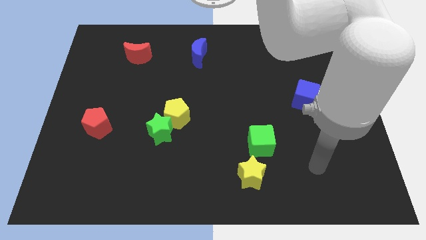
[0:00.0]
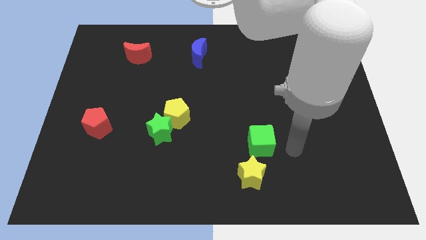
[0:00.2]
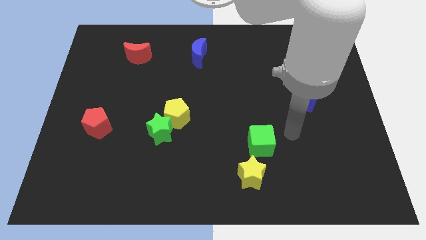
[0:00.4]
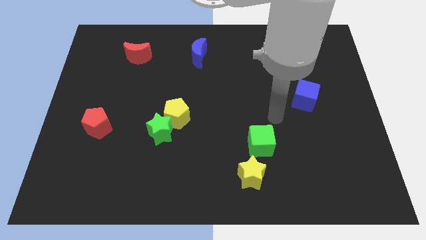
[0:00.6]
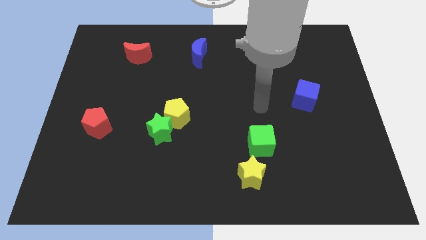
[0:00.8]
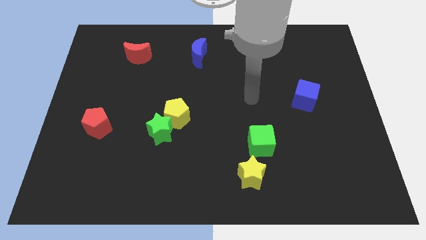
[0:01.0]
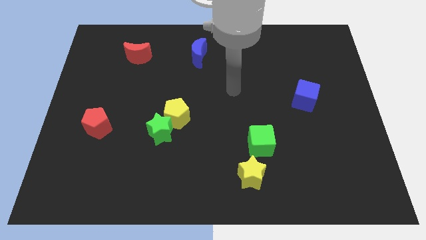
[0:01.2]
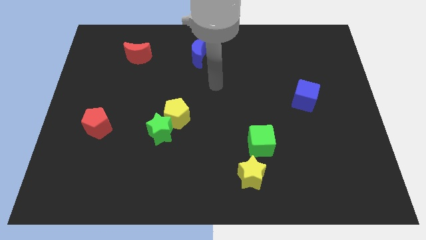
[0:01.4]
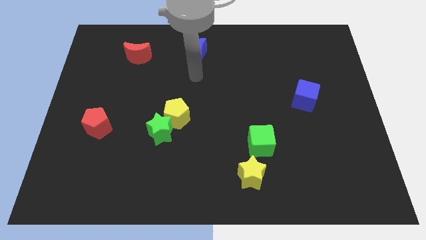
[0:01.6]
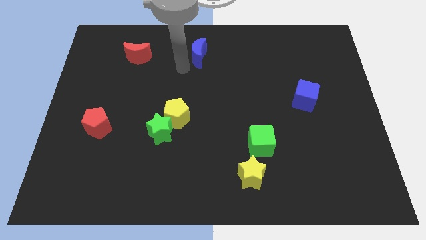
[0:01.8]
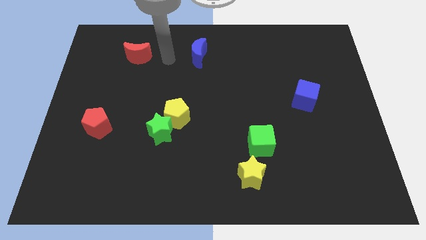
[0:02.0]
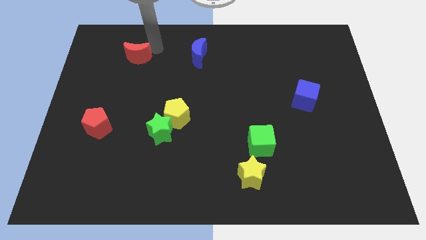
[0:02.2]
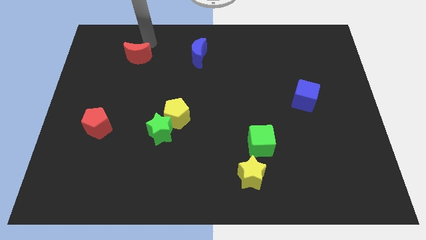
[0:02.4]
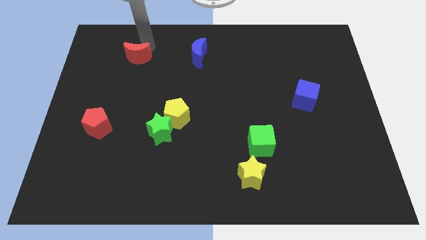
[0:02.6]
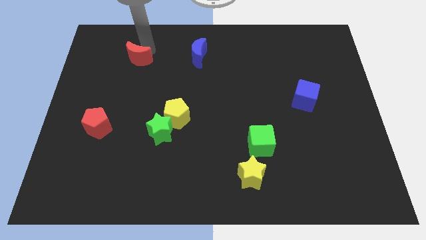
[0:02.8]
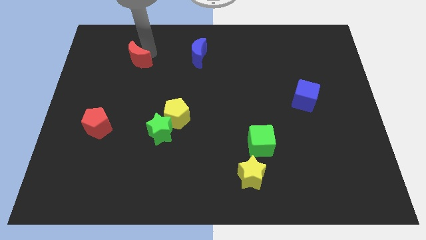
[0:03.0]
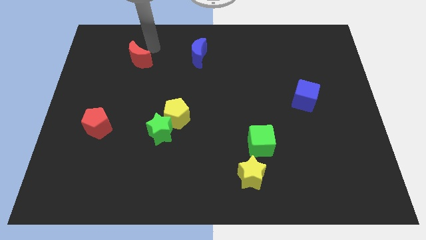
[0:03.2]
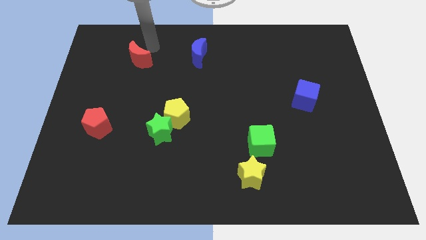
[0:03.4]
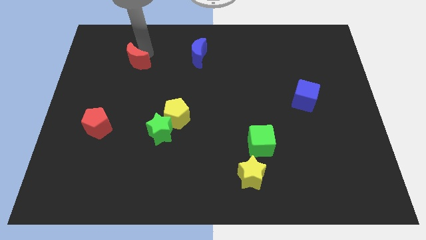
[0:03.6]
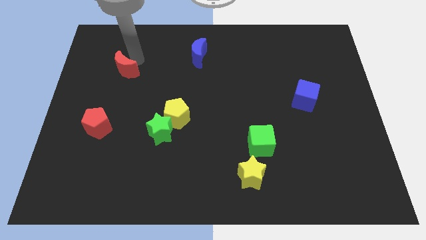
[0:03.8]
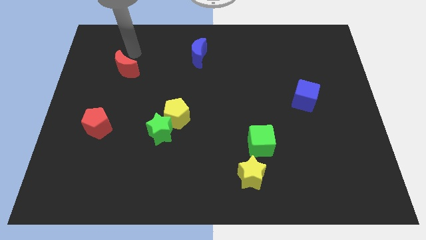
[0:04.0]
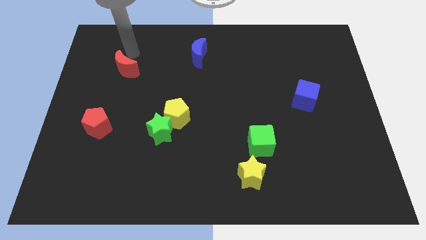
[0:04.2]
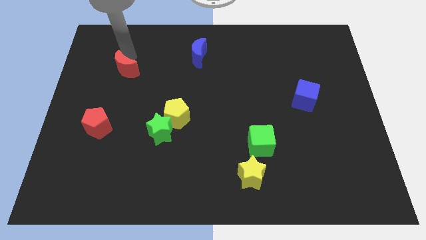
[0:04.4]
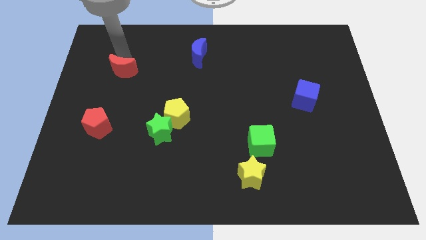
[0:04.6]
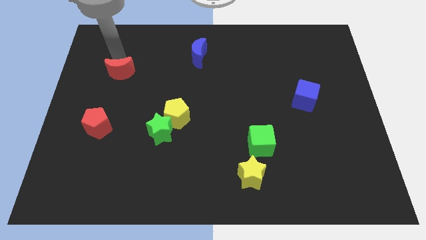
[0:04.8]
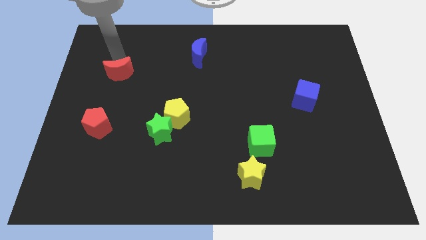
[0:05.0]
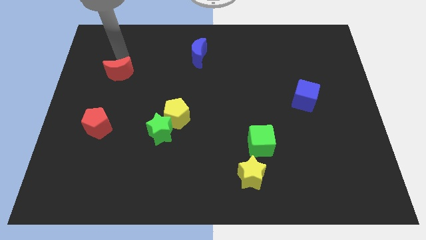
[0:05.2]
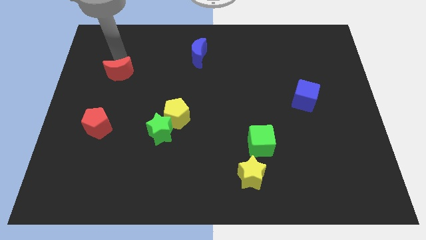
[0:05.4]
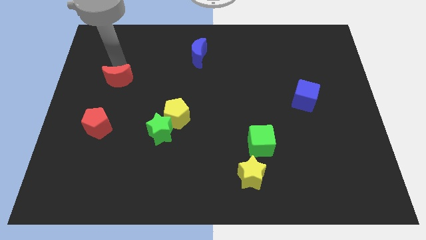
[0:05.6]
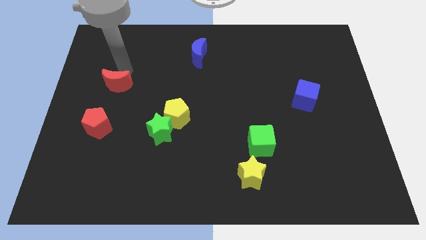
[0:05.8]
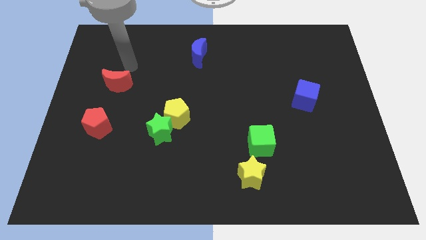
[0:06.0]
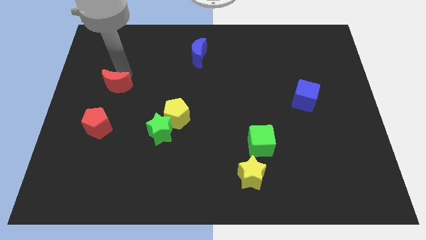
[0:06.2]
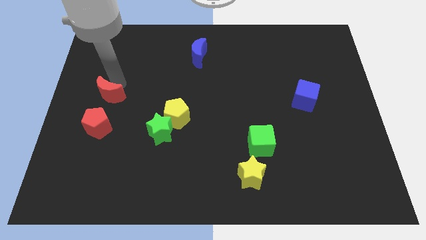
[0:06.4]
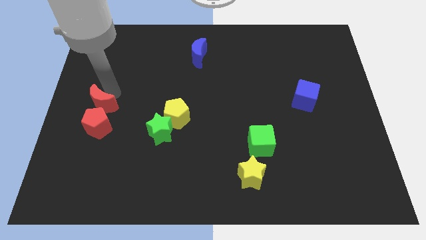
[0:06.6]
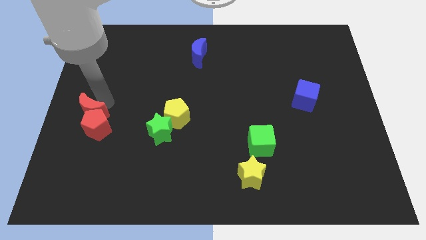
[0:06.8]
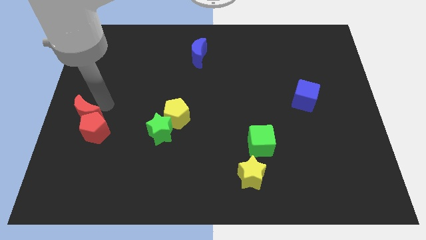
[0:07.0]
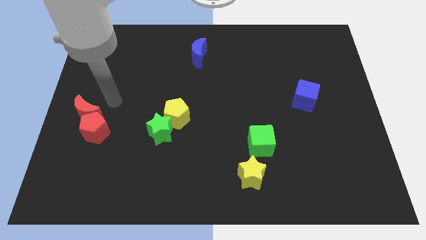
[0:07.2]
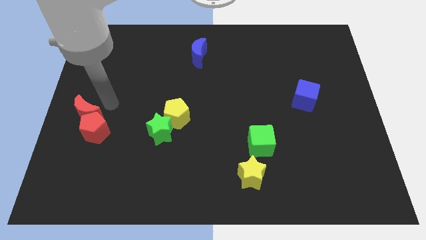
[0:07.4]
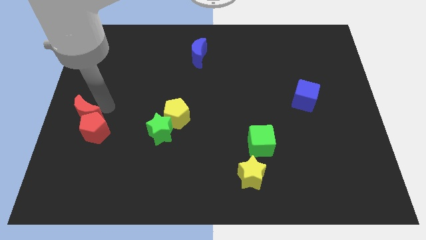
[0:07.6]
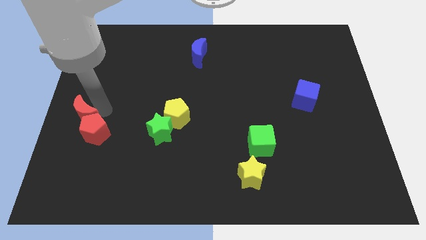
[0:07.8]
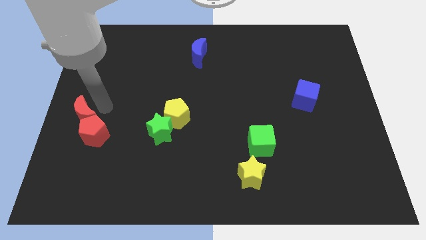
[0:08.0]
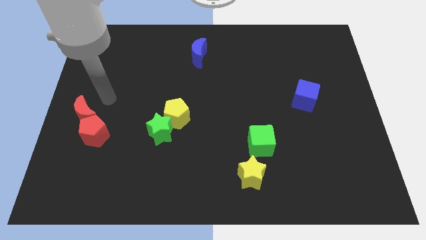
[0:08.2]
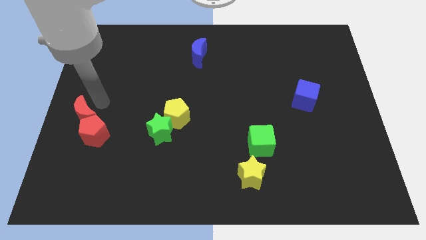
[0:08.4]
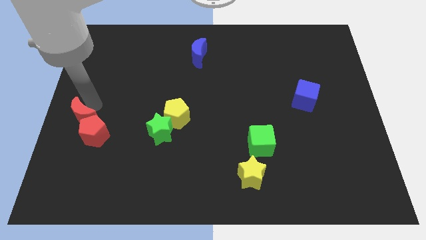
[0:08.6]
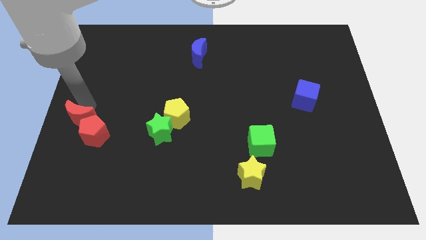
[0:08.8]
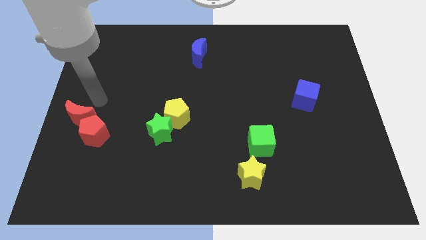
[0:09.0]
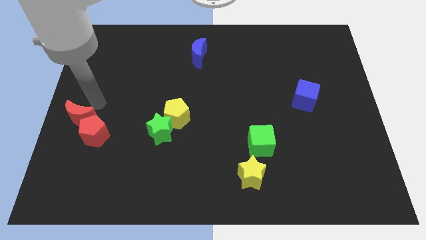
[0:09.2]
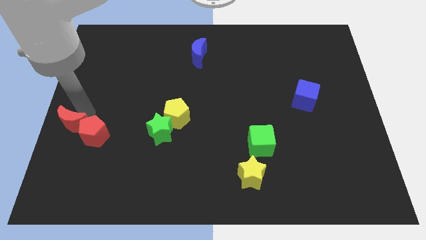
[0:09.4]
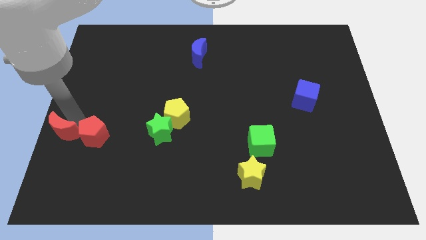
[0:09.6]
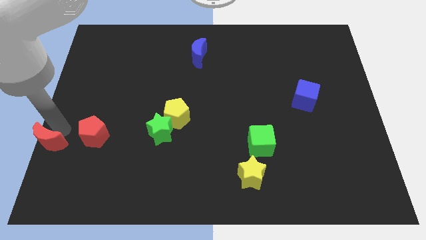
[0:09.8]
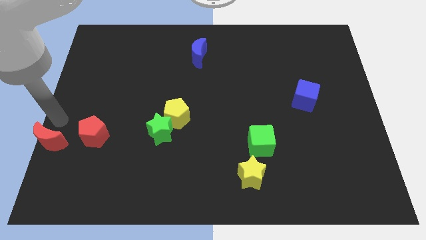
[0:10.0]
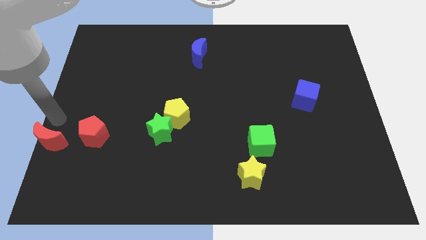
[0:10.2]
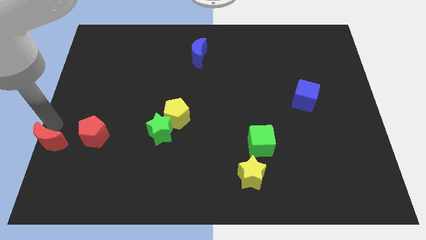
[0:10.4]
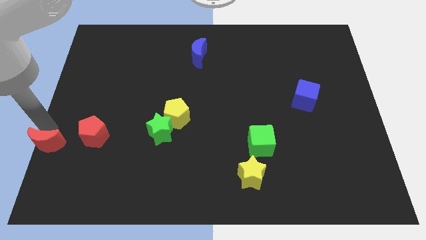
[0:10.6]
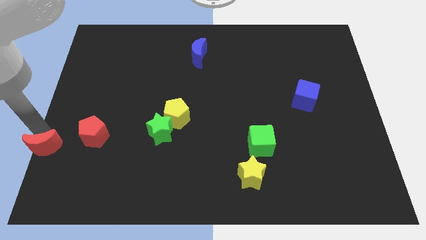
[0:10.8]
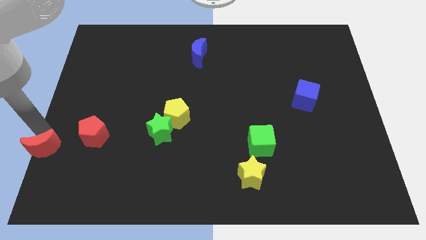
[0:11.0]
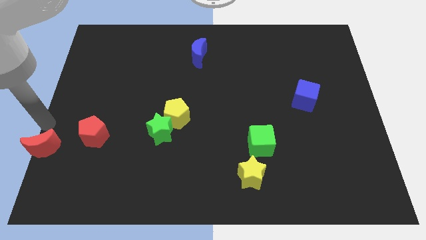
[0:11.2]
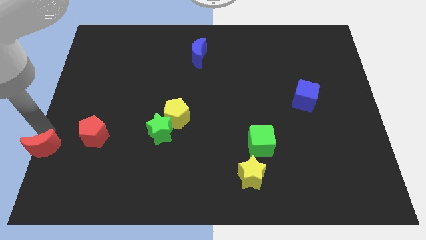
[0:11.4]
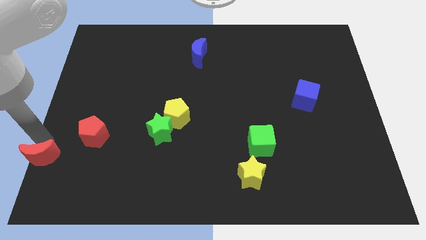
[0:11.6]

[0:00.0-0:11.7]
slide the red moon to the bottom left corner

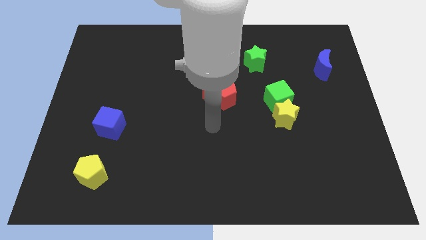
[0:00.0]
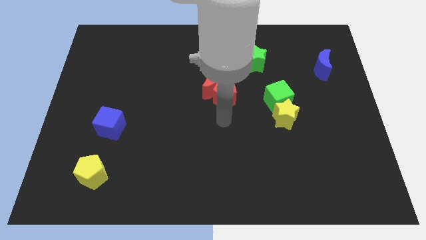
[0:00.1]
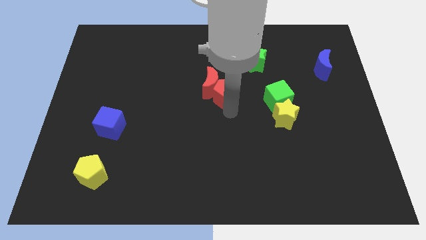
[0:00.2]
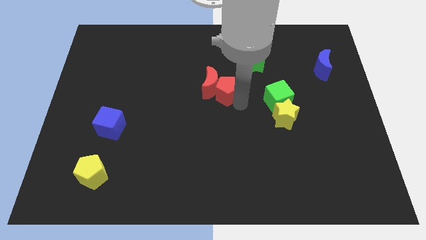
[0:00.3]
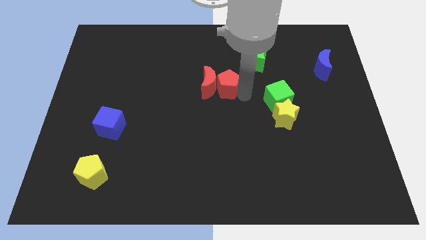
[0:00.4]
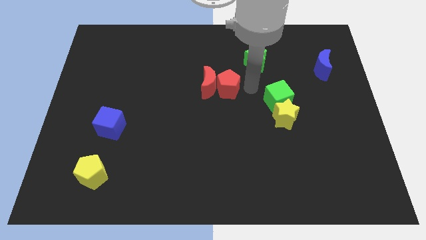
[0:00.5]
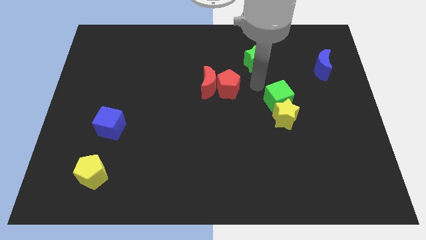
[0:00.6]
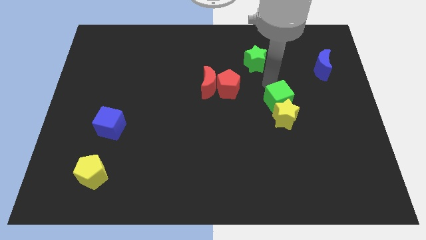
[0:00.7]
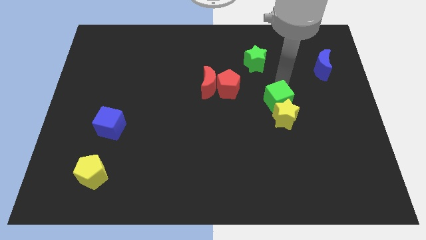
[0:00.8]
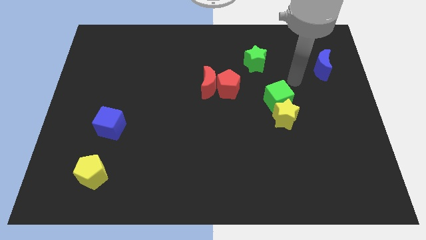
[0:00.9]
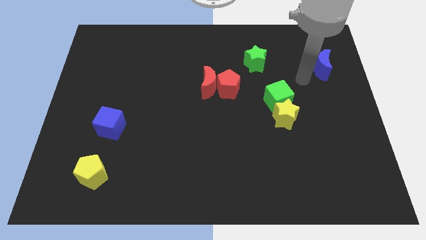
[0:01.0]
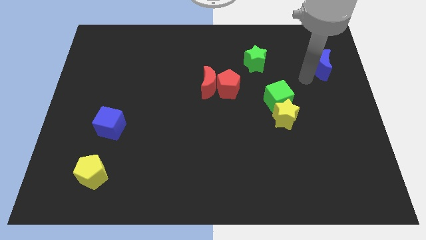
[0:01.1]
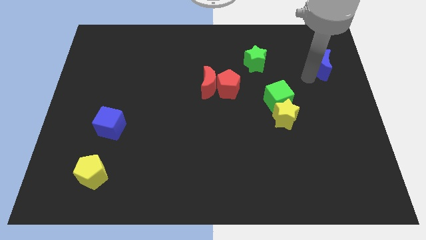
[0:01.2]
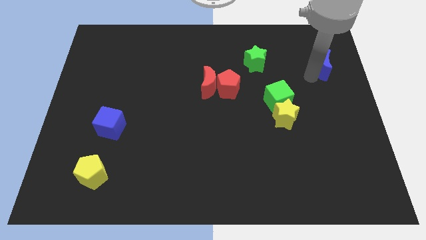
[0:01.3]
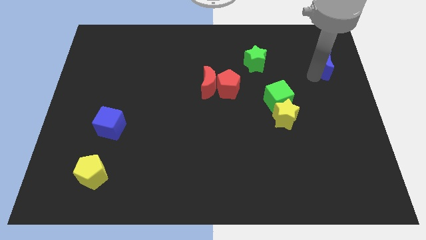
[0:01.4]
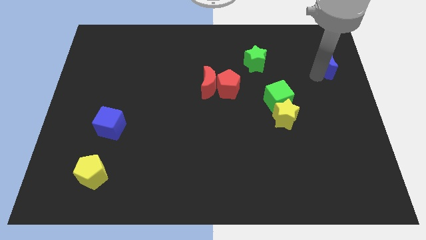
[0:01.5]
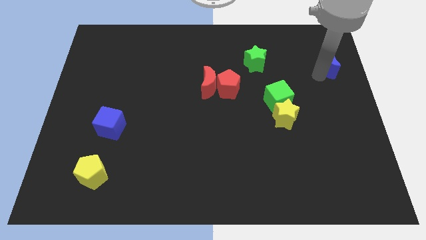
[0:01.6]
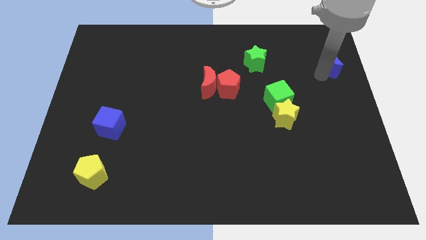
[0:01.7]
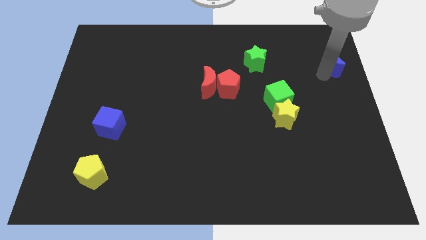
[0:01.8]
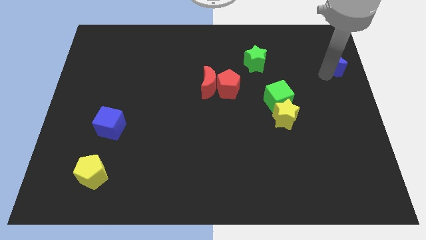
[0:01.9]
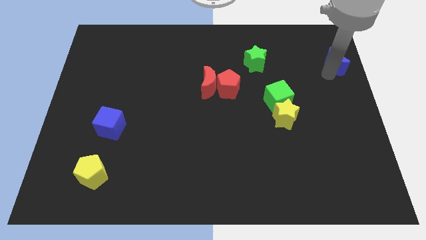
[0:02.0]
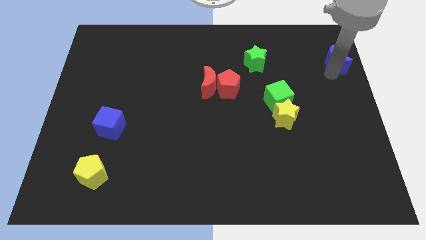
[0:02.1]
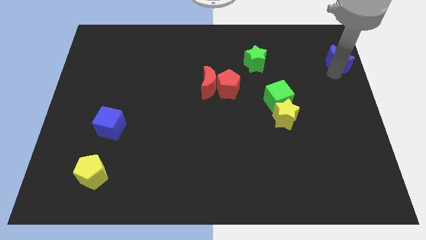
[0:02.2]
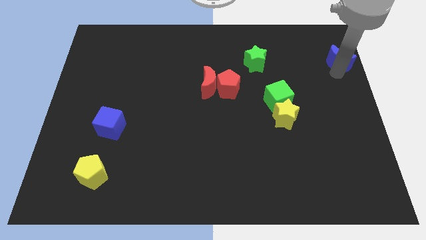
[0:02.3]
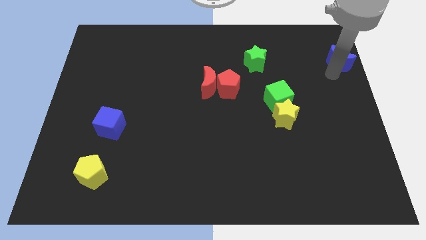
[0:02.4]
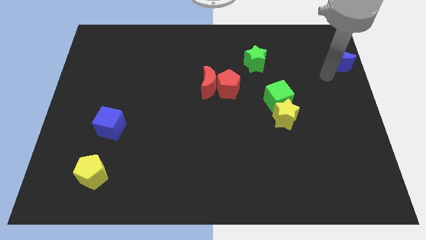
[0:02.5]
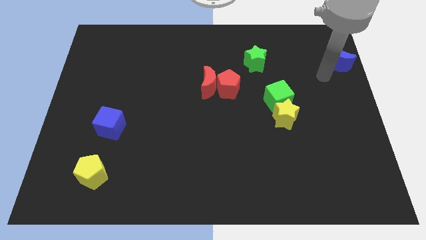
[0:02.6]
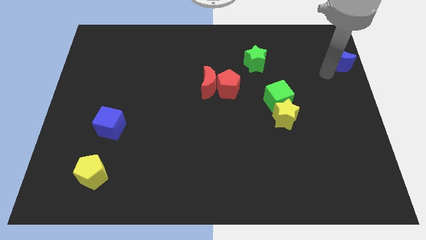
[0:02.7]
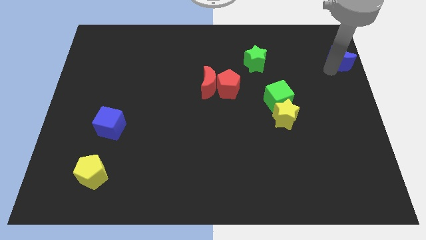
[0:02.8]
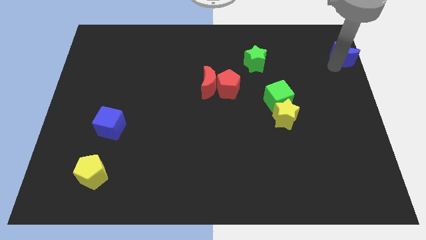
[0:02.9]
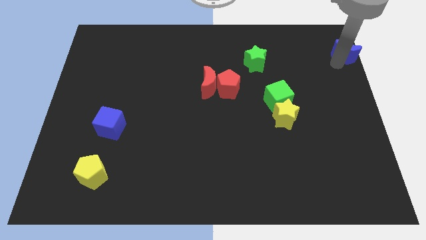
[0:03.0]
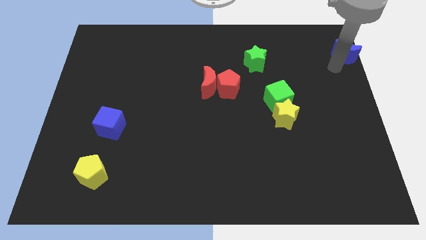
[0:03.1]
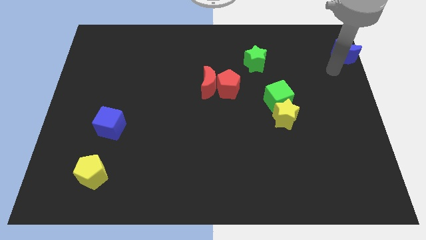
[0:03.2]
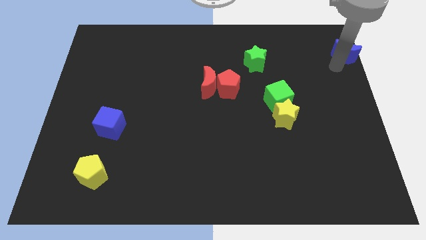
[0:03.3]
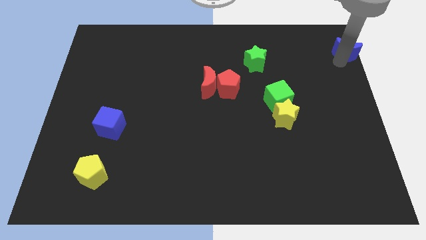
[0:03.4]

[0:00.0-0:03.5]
move the blue moon to the top right
